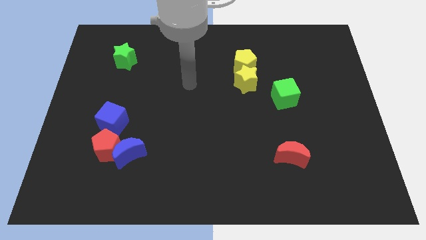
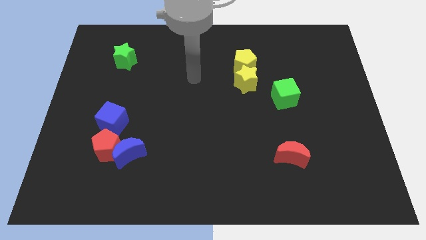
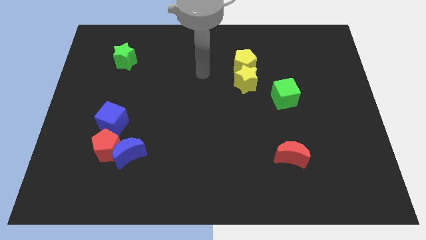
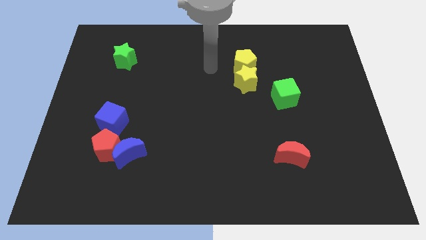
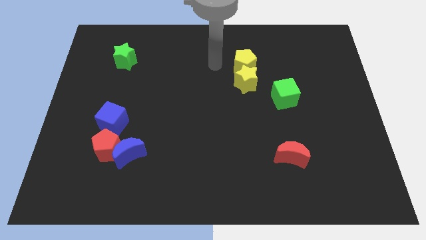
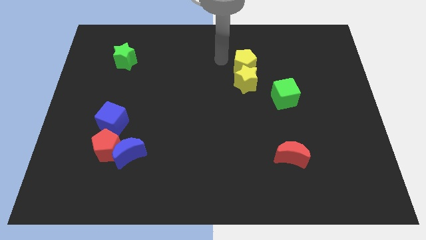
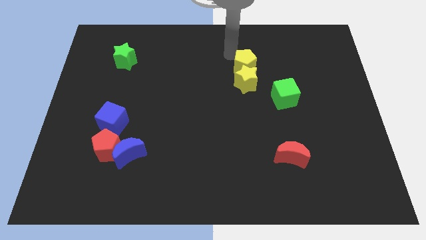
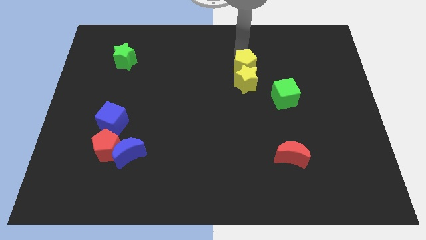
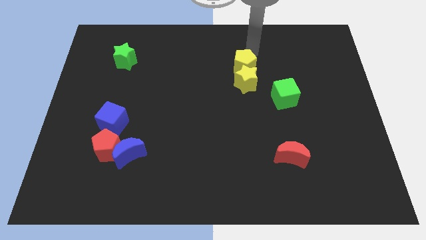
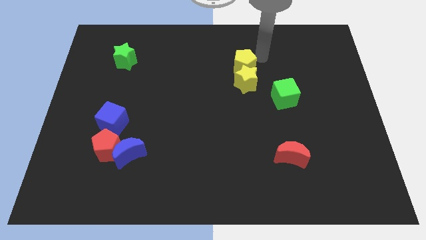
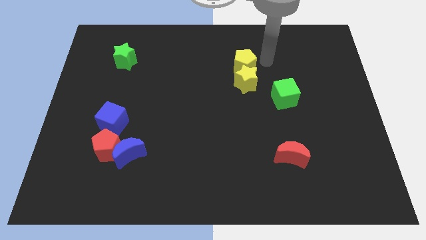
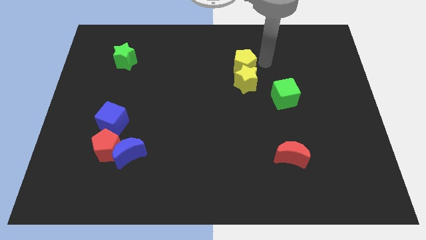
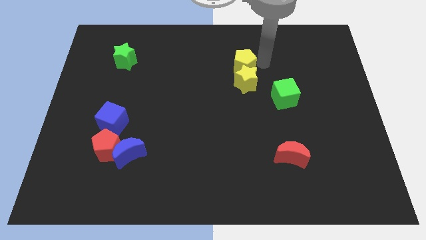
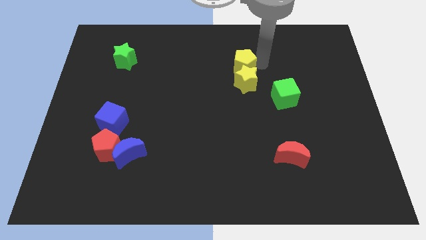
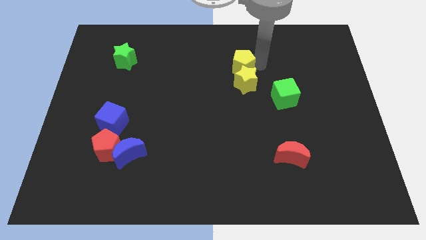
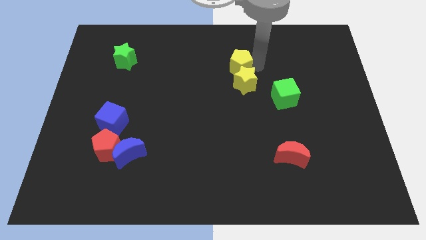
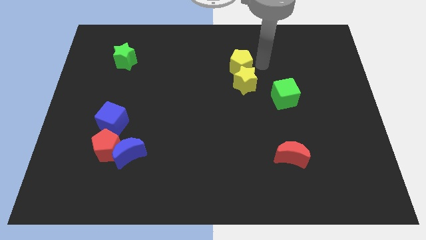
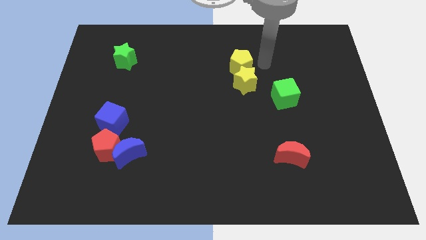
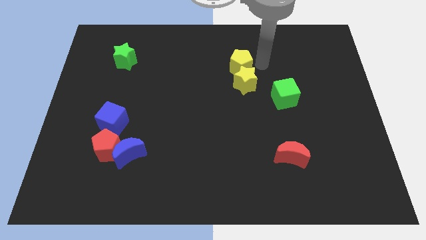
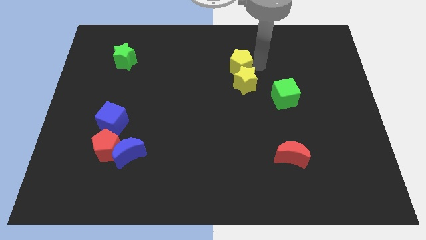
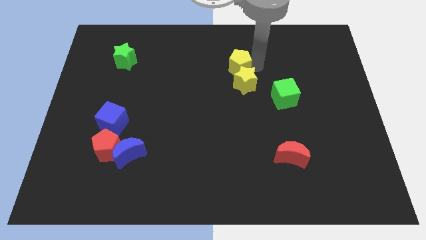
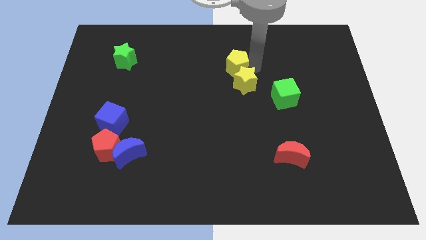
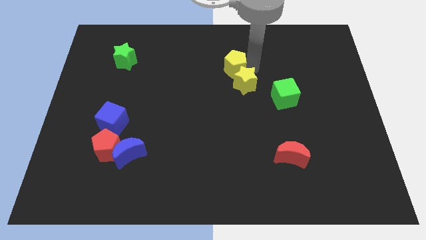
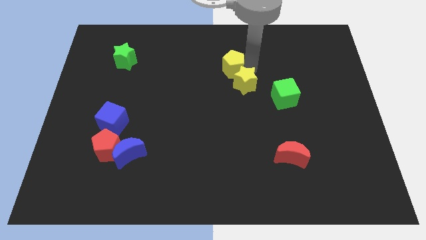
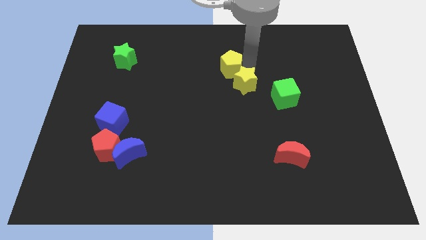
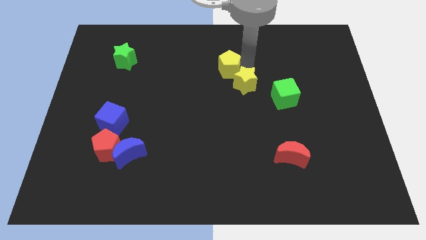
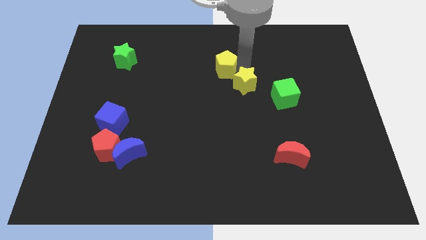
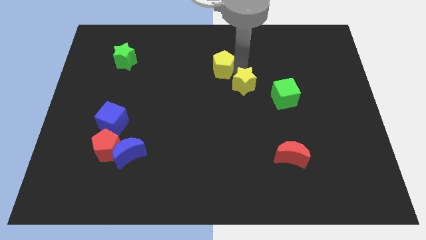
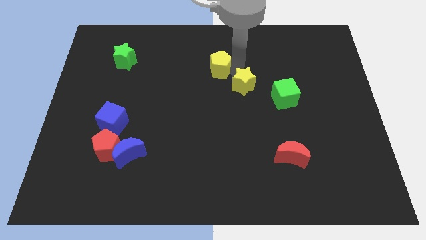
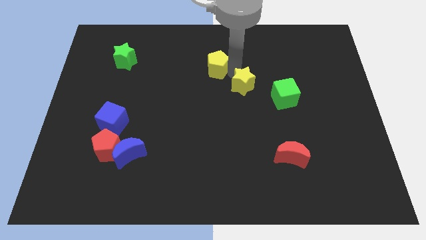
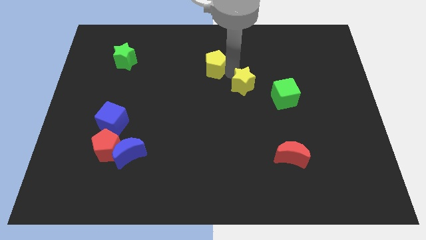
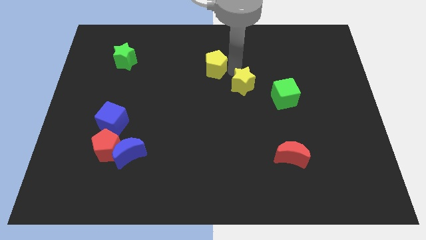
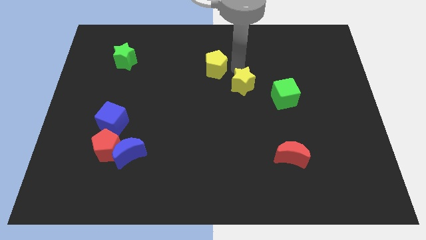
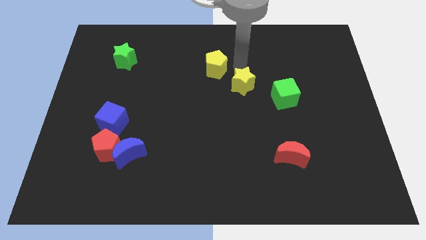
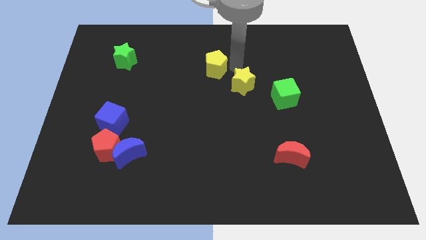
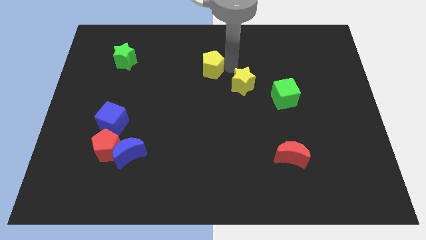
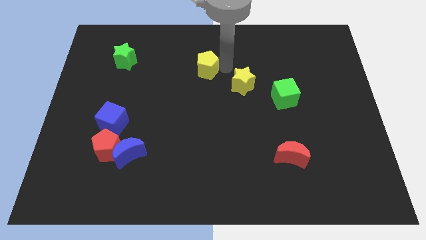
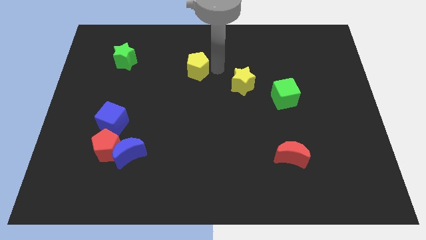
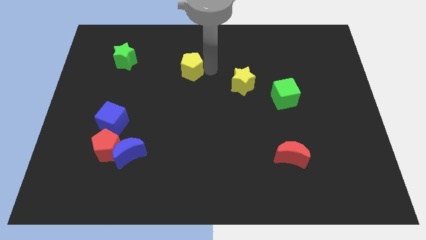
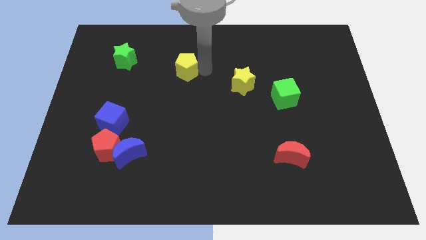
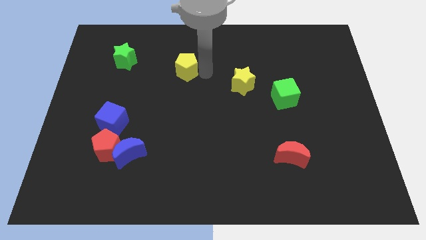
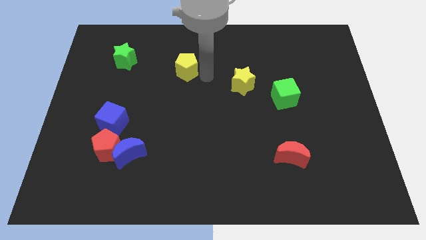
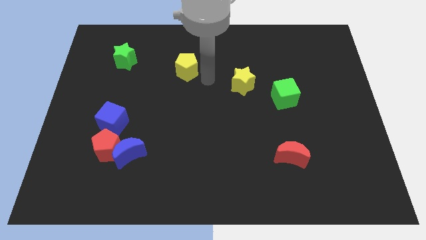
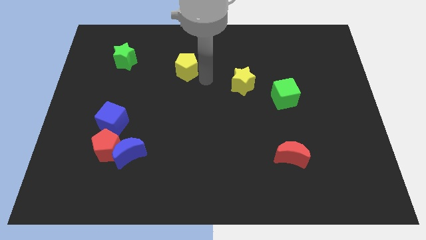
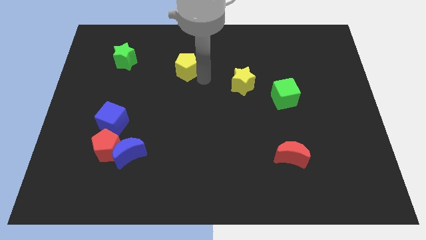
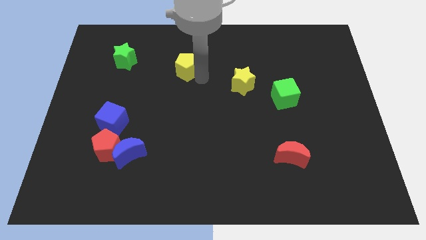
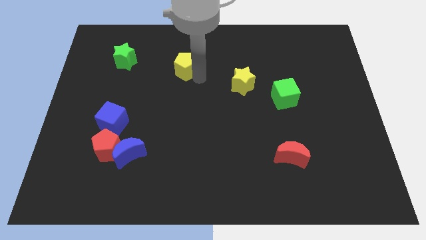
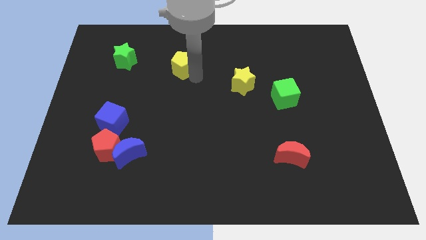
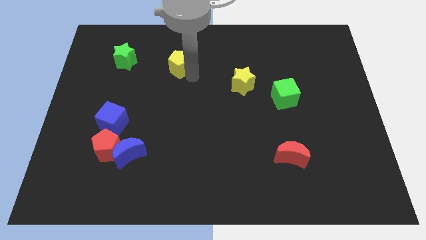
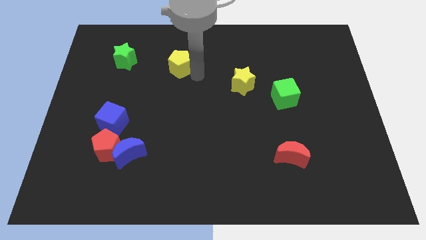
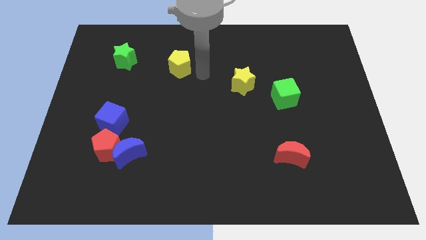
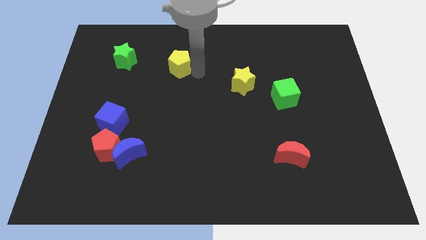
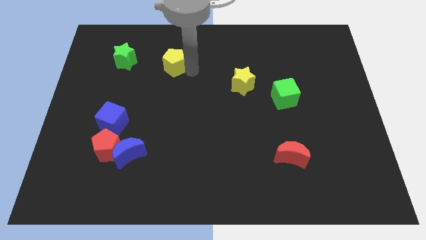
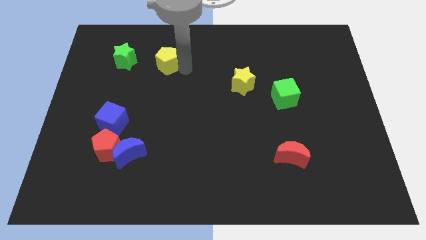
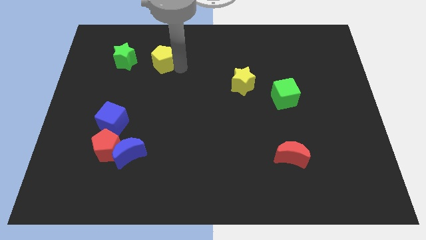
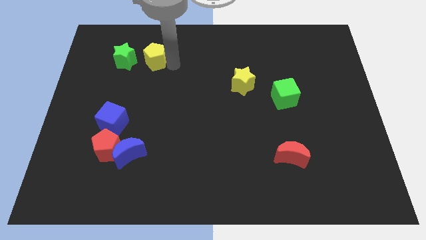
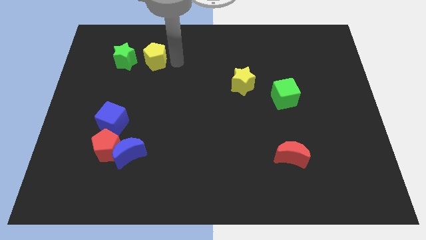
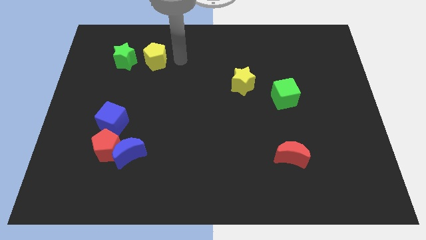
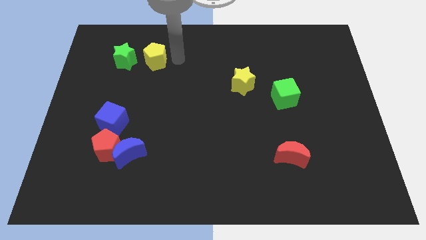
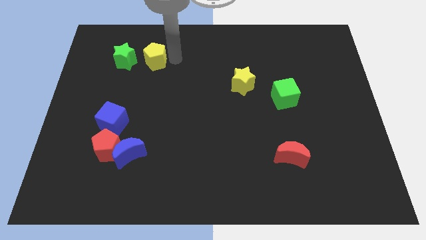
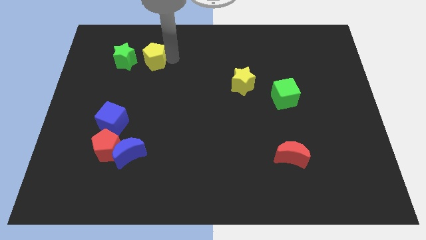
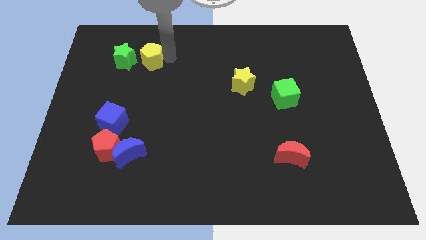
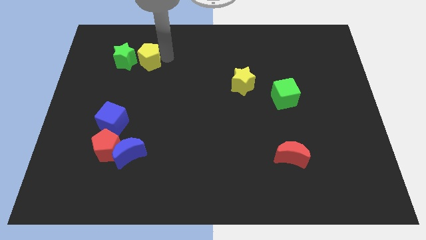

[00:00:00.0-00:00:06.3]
push the yellow pentagon to the green star

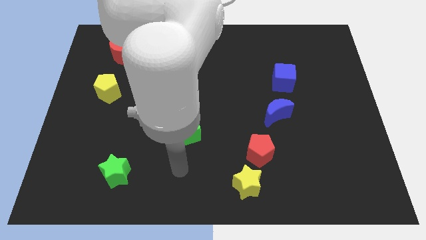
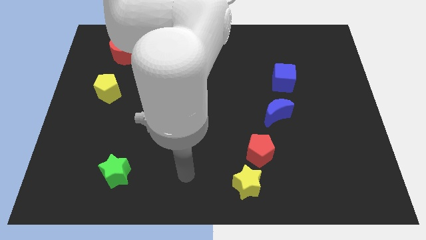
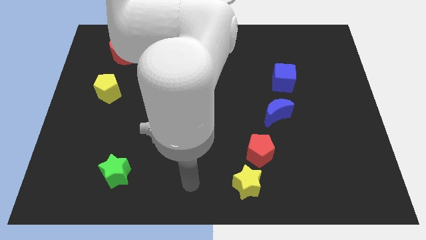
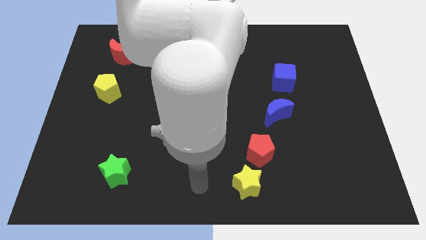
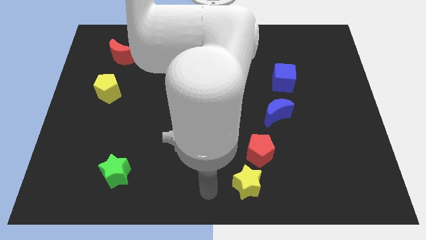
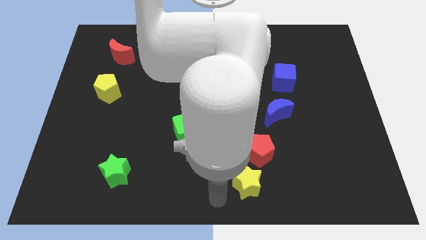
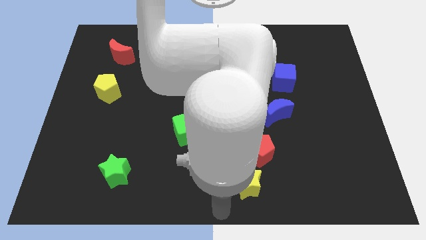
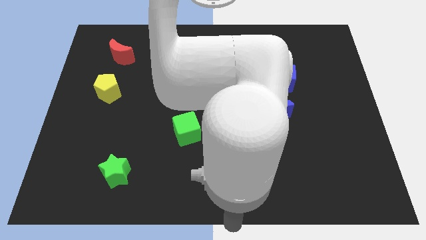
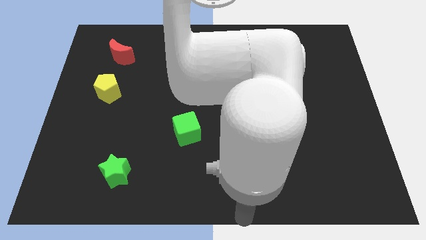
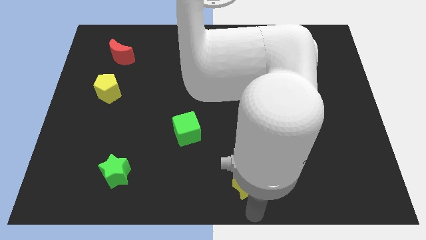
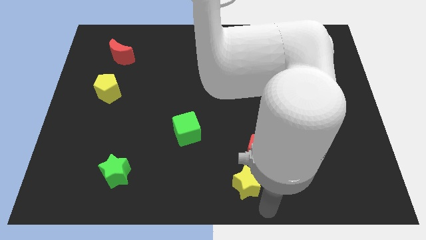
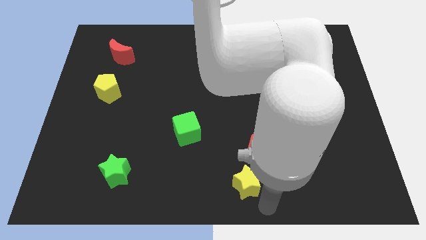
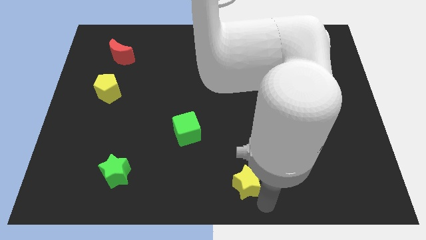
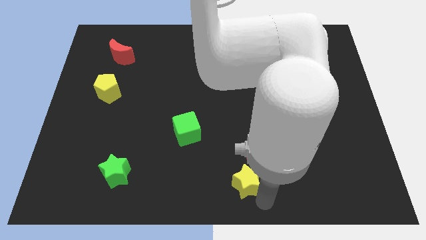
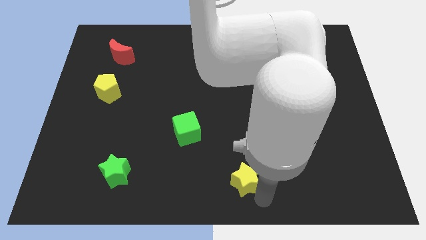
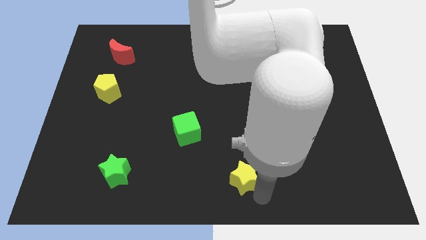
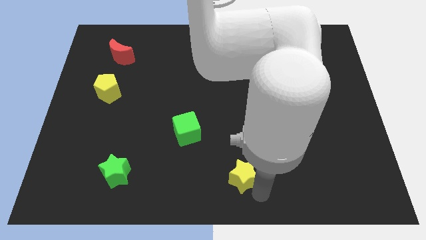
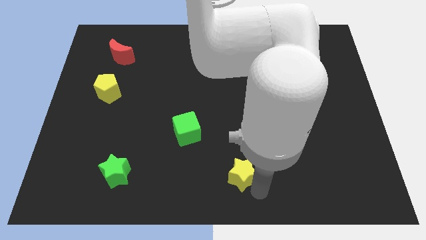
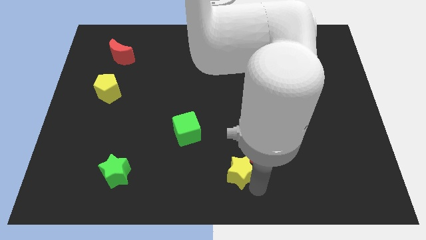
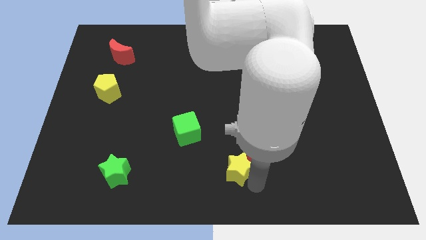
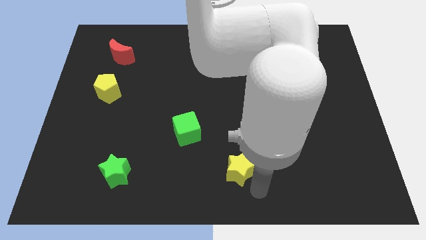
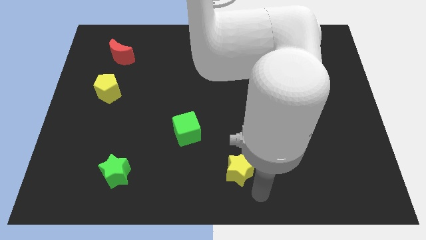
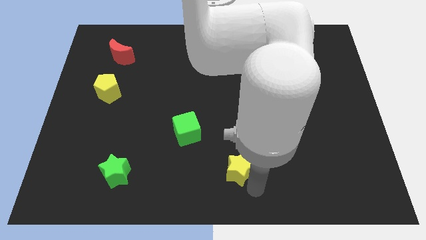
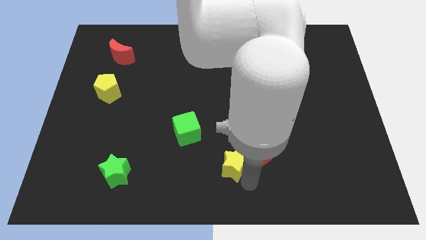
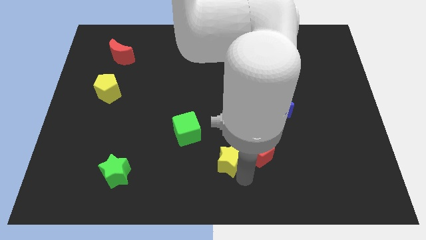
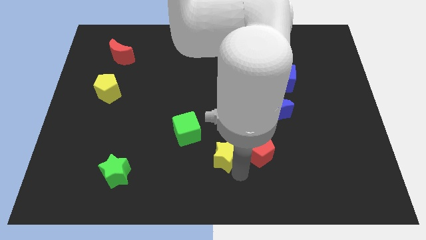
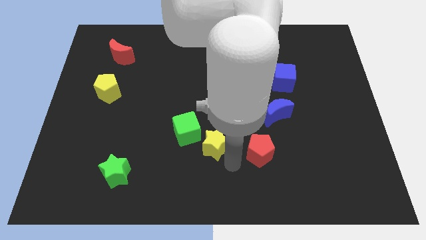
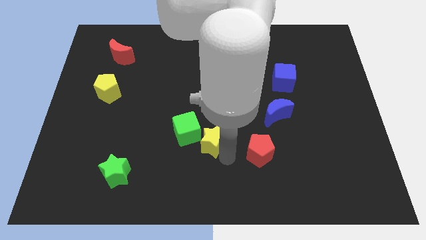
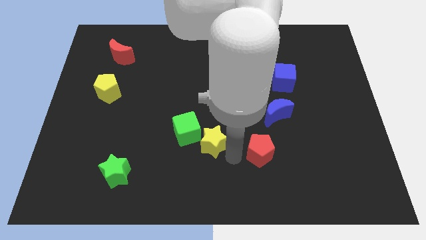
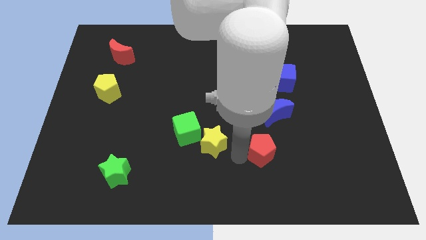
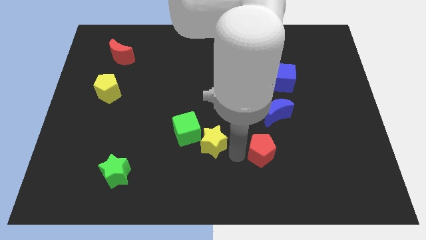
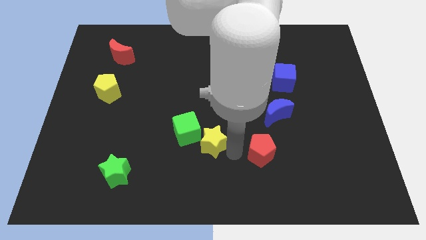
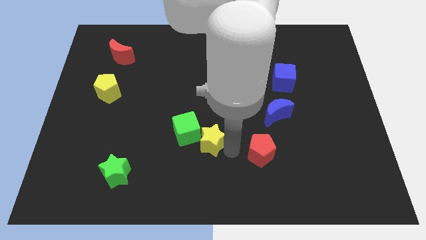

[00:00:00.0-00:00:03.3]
slide the yellow star next to the green cube
